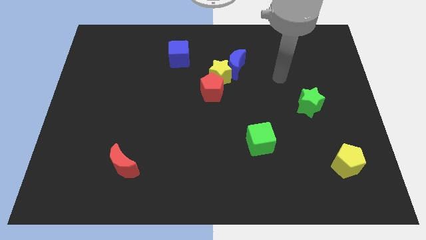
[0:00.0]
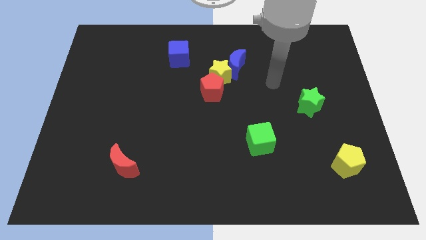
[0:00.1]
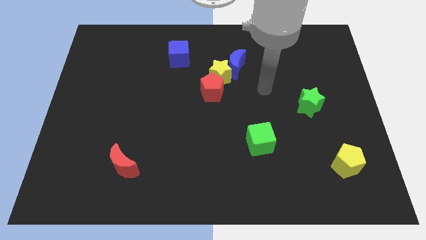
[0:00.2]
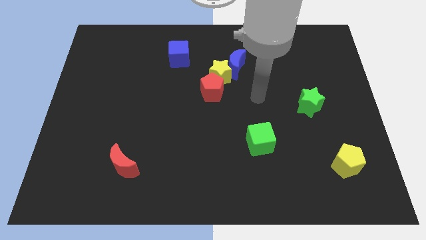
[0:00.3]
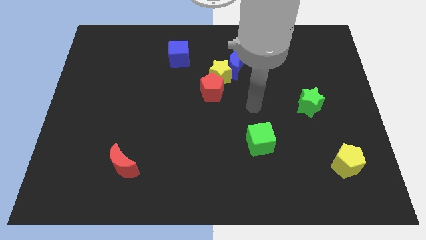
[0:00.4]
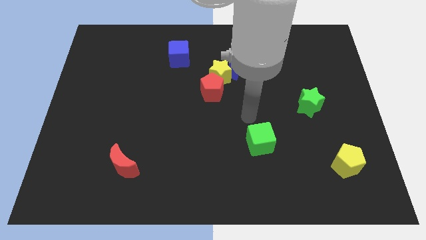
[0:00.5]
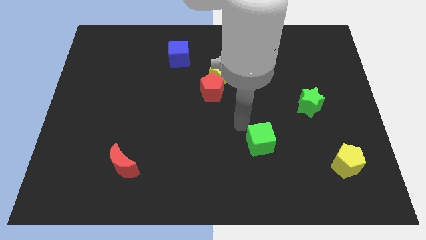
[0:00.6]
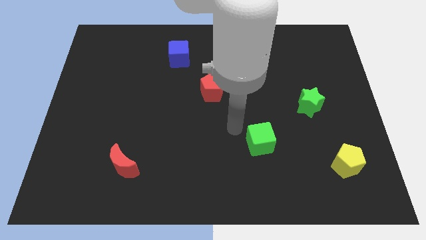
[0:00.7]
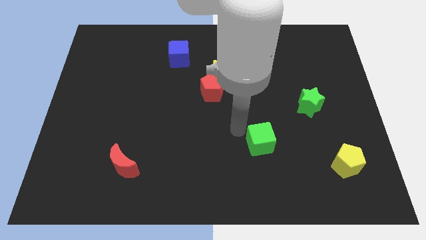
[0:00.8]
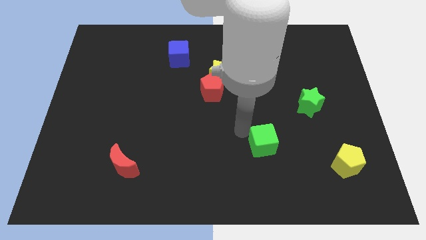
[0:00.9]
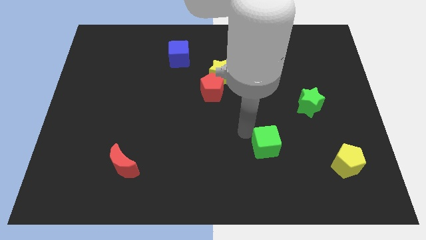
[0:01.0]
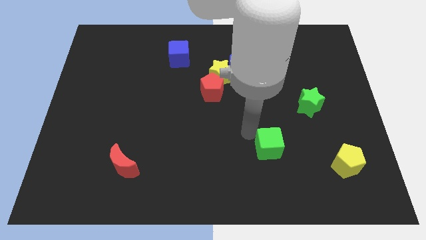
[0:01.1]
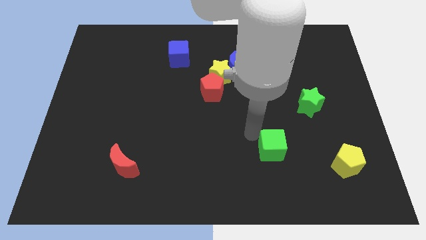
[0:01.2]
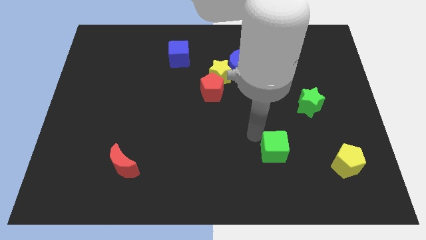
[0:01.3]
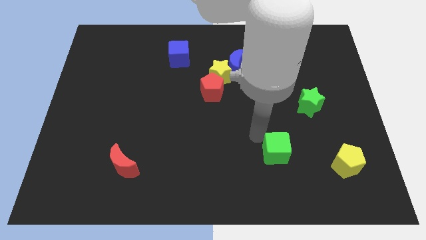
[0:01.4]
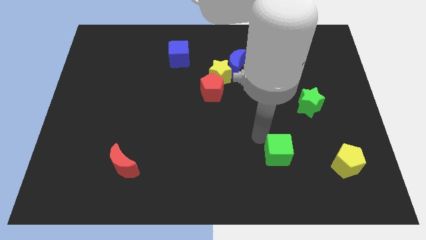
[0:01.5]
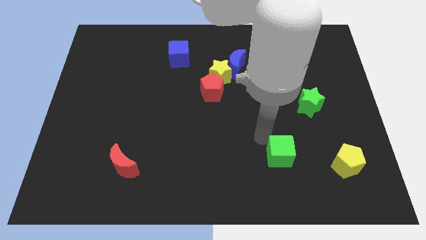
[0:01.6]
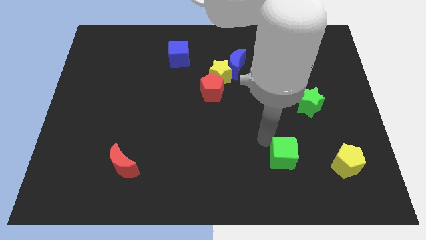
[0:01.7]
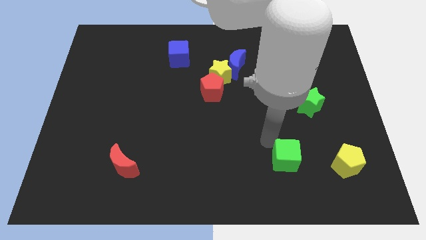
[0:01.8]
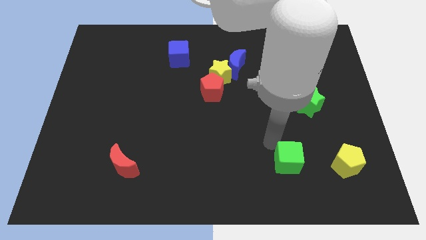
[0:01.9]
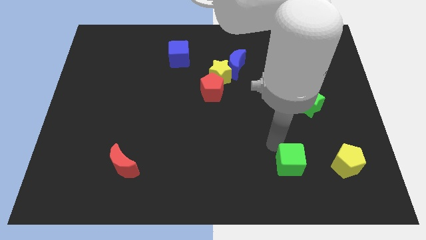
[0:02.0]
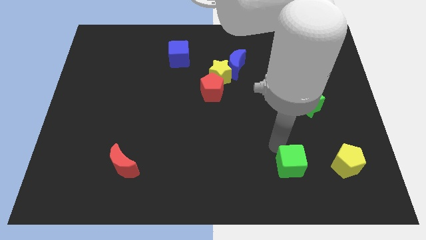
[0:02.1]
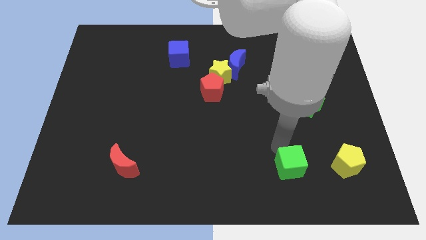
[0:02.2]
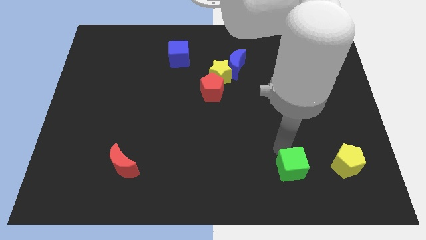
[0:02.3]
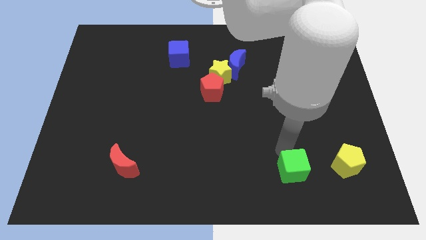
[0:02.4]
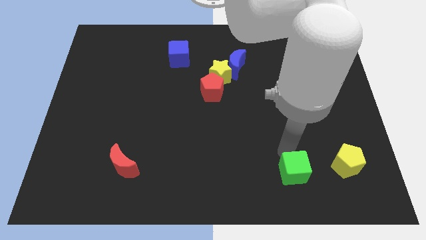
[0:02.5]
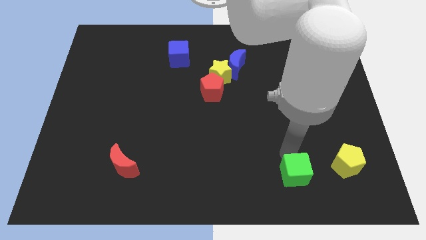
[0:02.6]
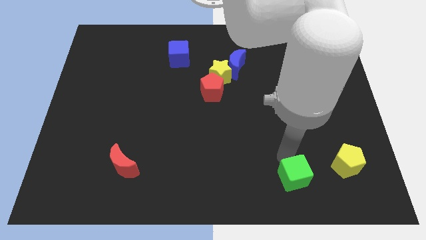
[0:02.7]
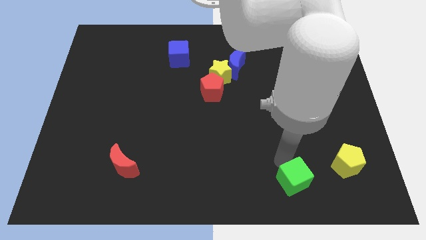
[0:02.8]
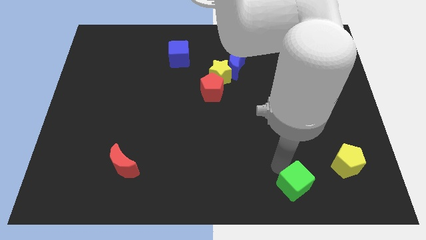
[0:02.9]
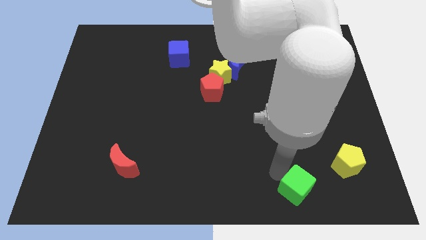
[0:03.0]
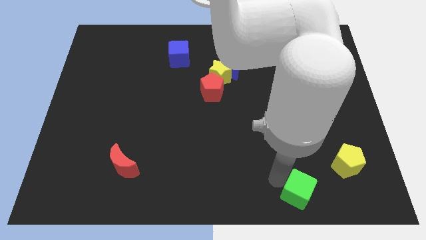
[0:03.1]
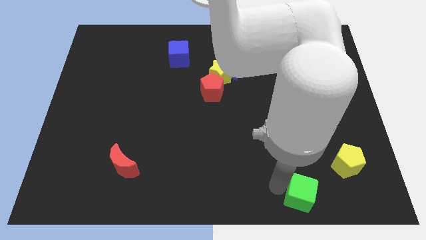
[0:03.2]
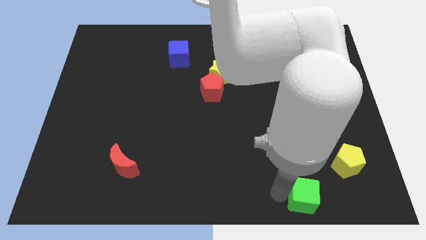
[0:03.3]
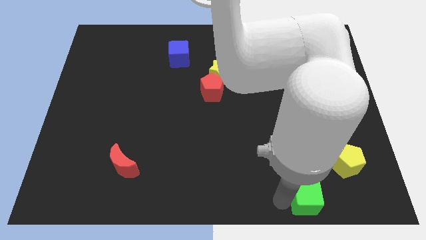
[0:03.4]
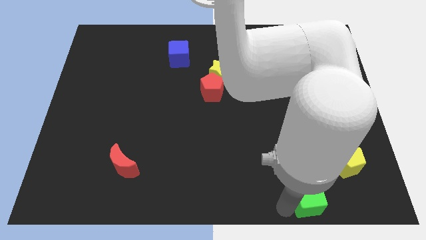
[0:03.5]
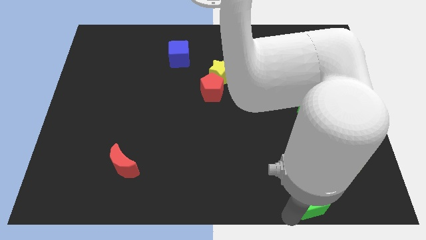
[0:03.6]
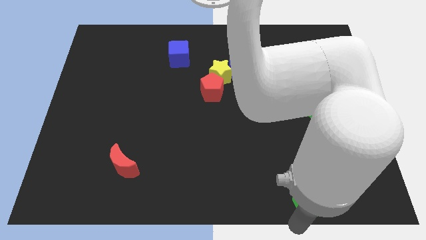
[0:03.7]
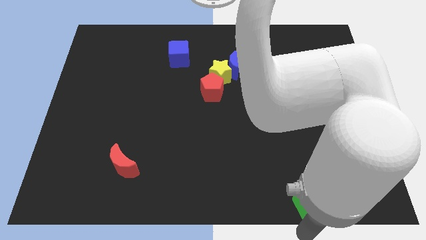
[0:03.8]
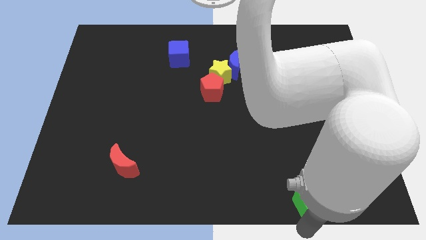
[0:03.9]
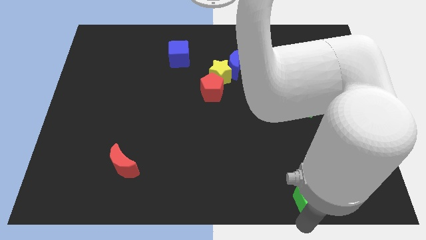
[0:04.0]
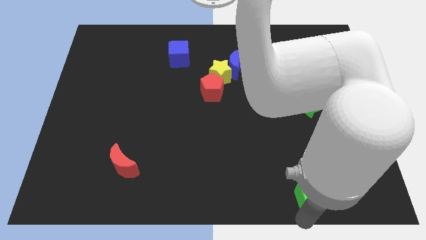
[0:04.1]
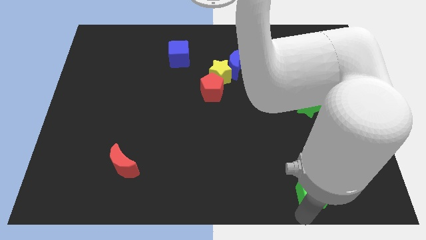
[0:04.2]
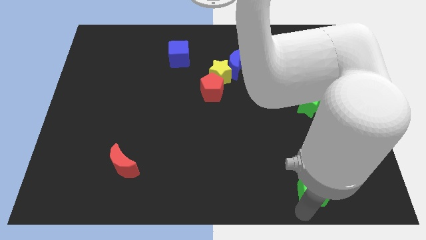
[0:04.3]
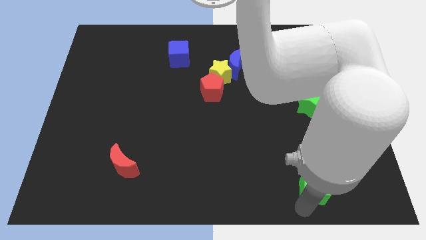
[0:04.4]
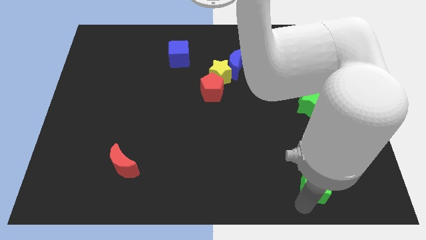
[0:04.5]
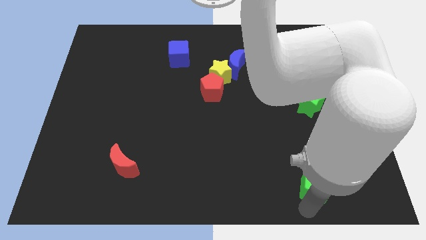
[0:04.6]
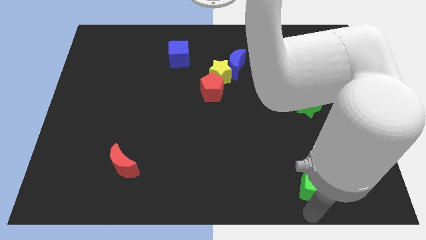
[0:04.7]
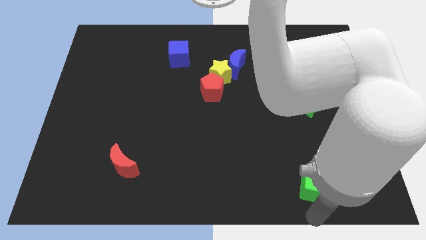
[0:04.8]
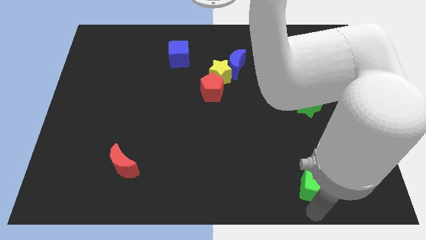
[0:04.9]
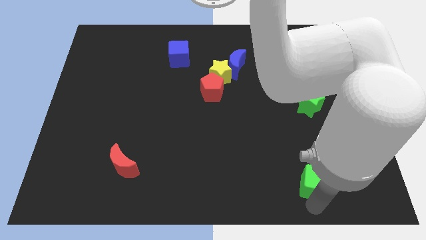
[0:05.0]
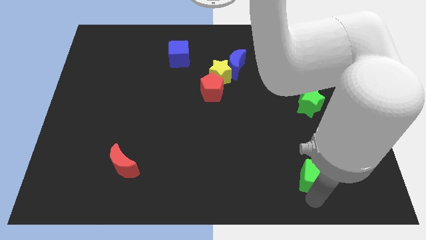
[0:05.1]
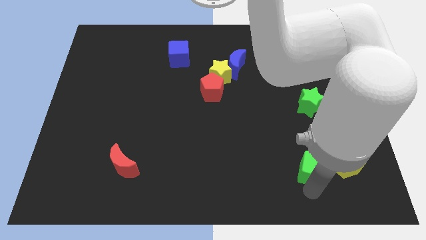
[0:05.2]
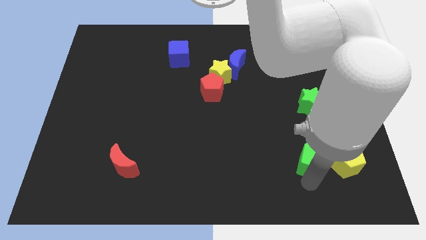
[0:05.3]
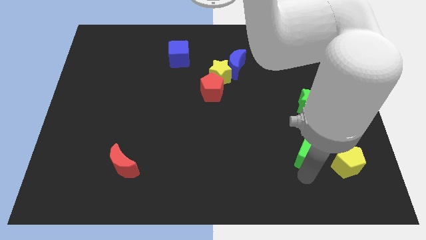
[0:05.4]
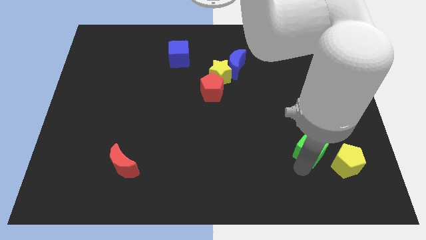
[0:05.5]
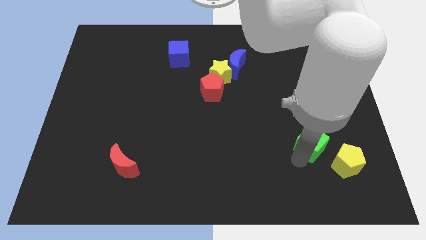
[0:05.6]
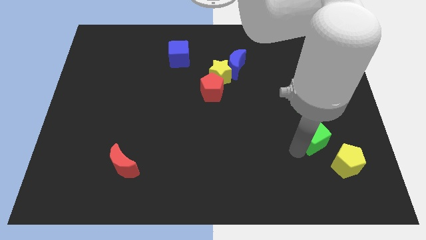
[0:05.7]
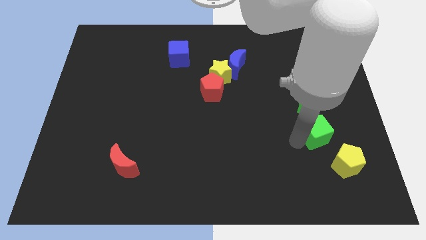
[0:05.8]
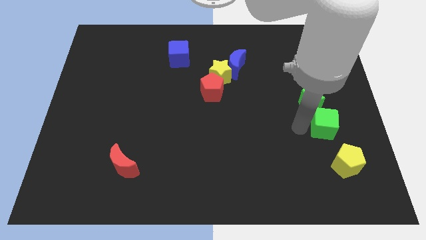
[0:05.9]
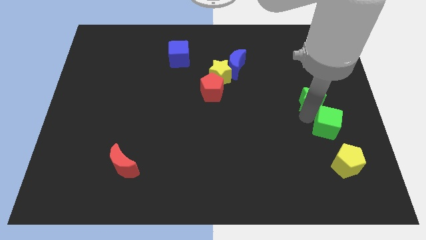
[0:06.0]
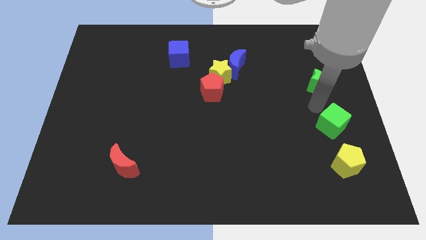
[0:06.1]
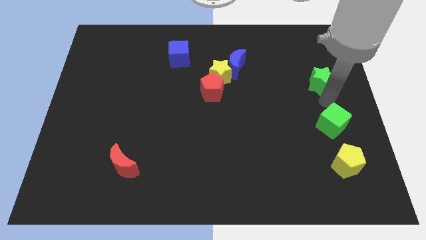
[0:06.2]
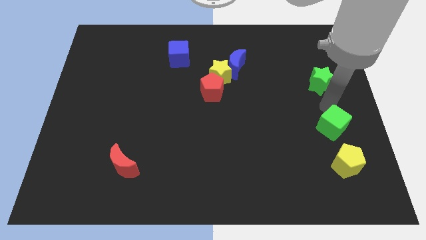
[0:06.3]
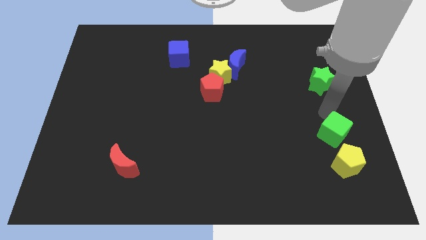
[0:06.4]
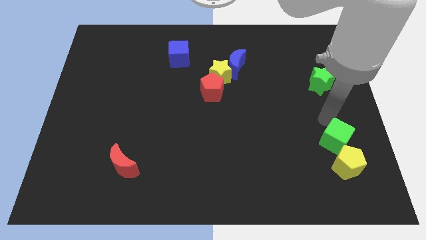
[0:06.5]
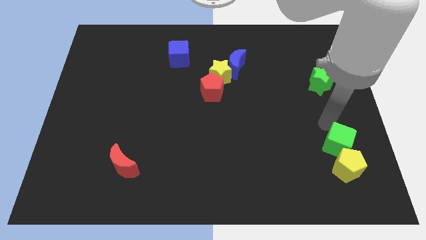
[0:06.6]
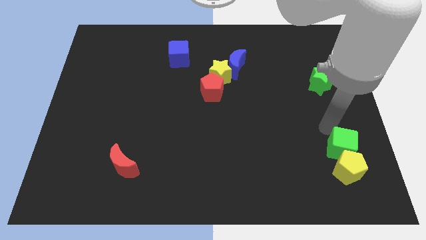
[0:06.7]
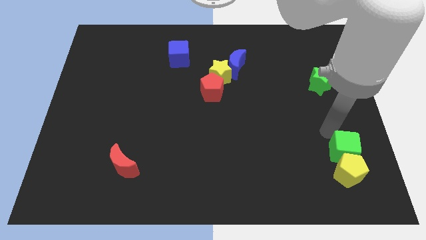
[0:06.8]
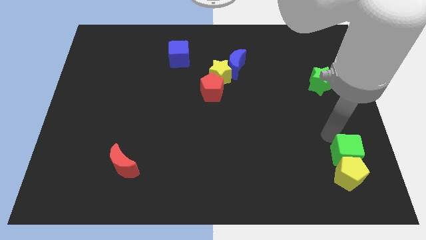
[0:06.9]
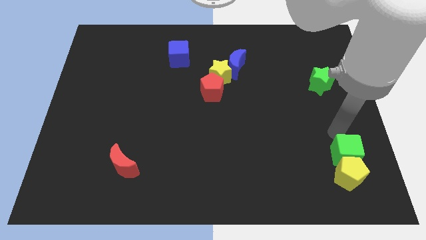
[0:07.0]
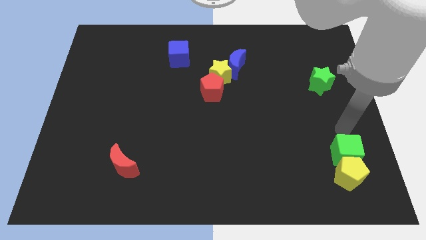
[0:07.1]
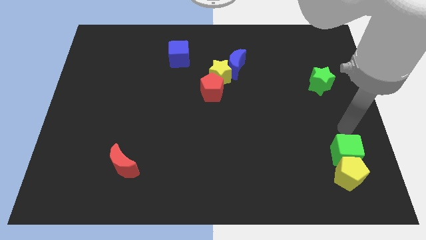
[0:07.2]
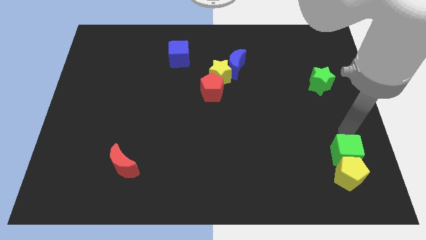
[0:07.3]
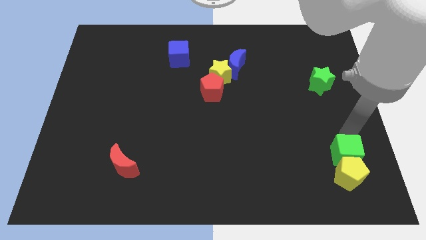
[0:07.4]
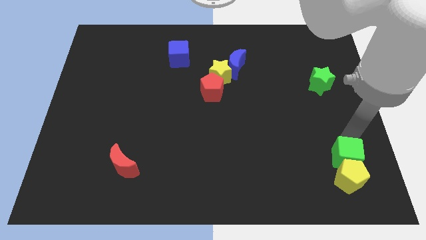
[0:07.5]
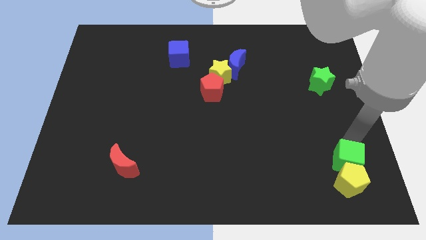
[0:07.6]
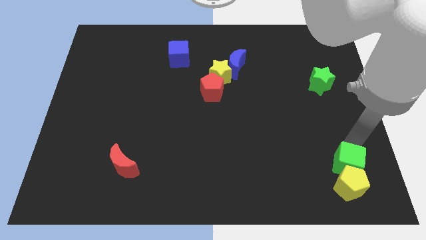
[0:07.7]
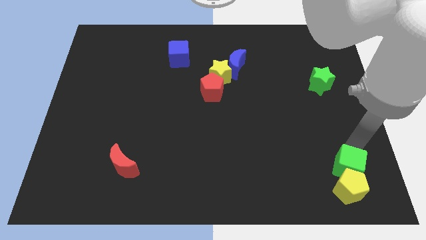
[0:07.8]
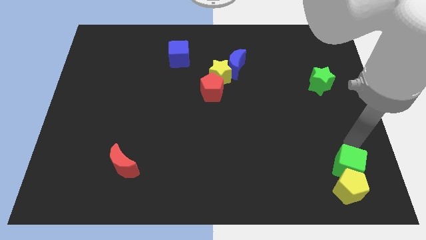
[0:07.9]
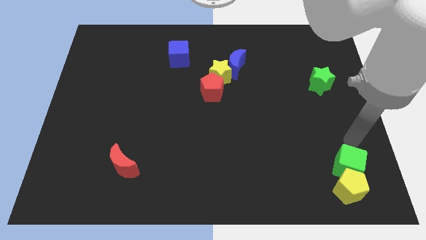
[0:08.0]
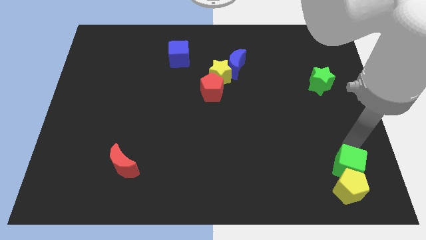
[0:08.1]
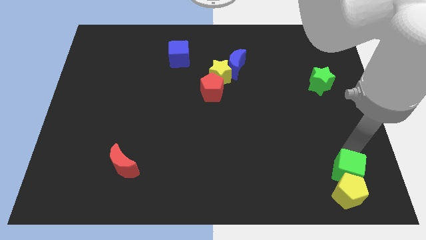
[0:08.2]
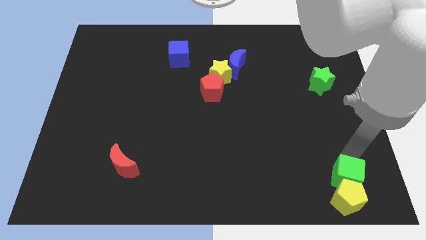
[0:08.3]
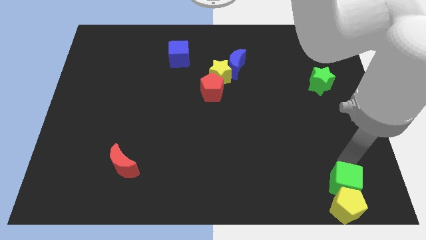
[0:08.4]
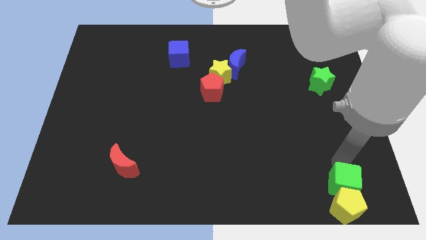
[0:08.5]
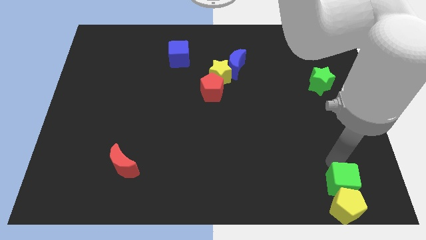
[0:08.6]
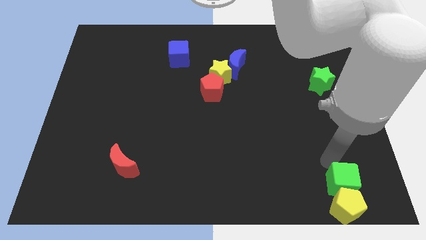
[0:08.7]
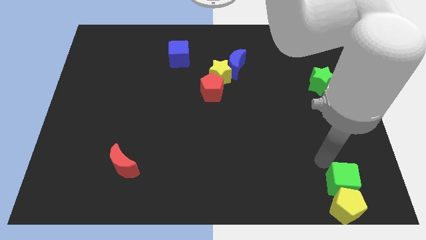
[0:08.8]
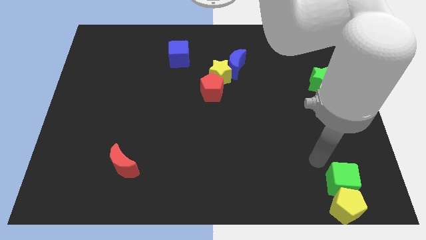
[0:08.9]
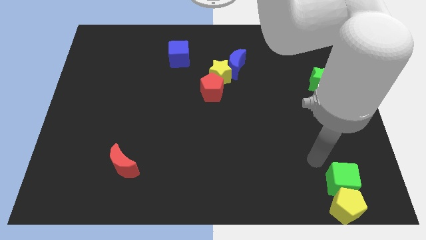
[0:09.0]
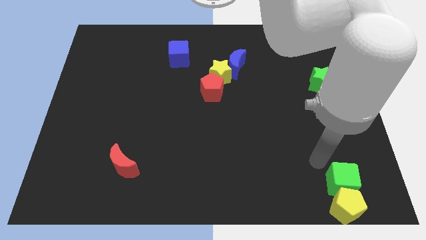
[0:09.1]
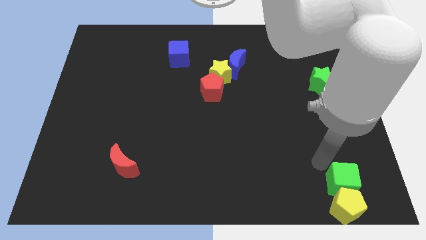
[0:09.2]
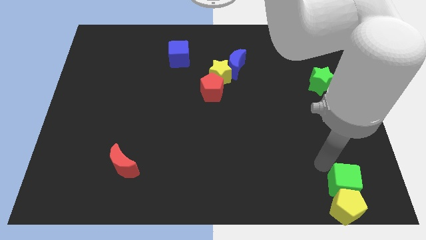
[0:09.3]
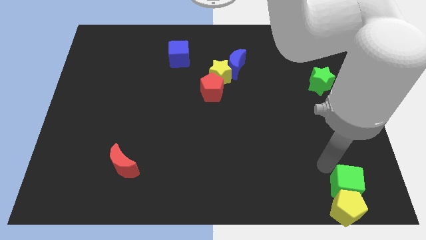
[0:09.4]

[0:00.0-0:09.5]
push the green cube to the lower right corner
